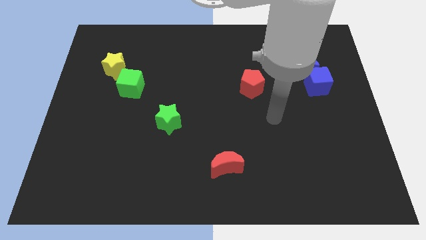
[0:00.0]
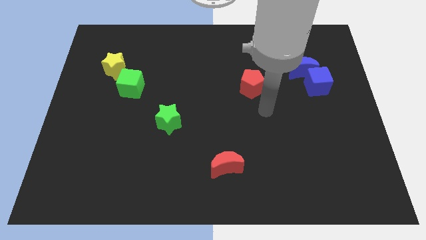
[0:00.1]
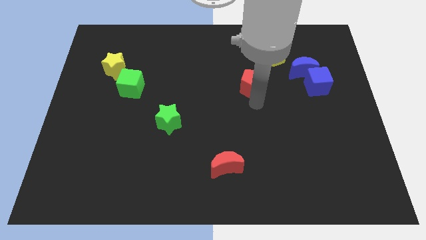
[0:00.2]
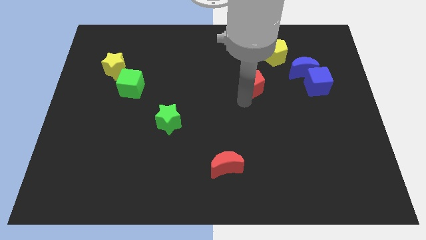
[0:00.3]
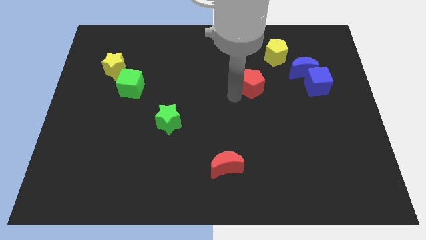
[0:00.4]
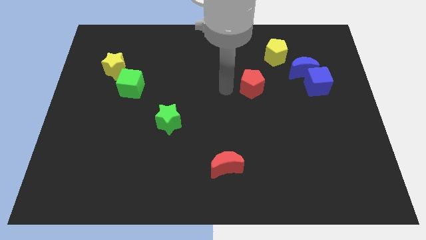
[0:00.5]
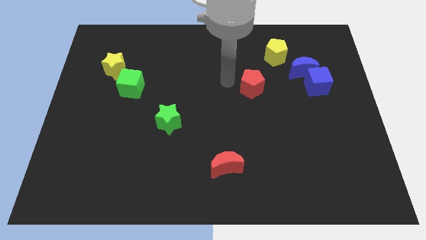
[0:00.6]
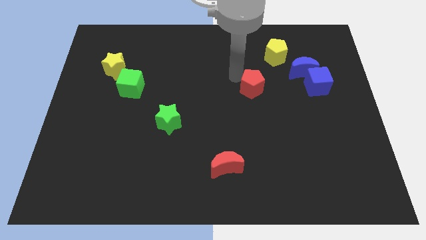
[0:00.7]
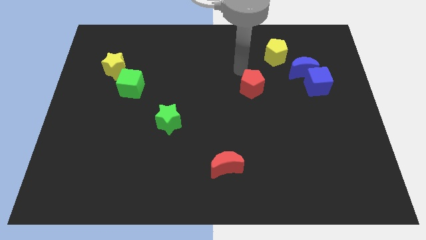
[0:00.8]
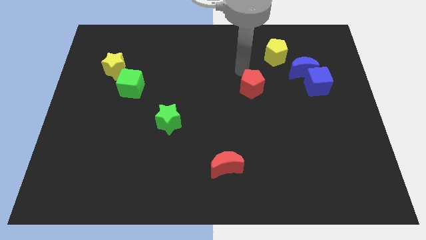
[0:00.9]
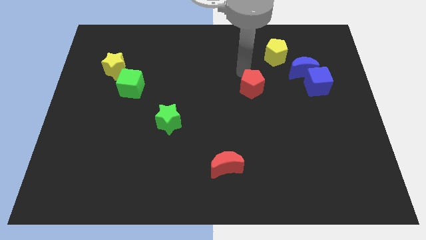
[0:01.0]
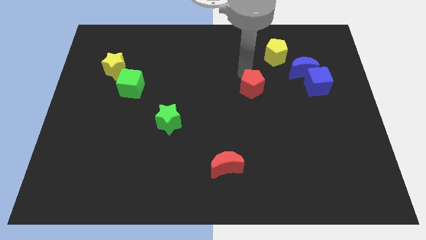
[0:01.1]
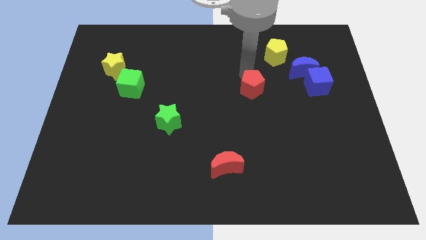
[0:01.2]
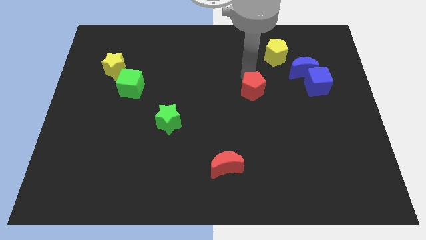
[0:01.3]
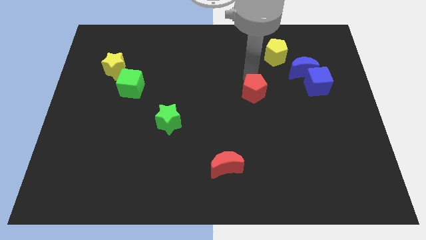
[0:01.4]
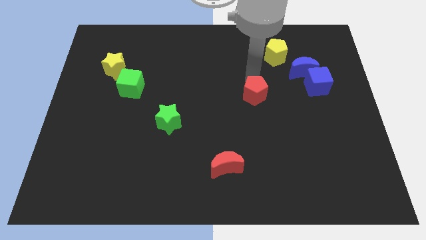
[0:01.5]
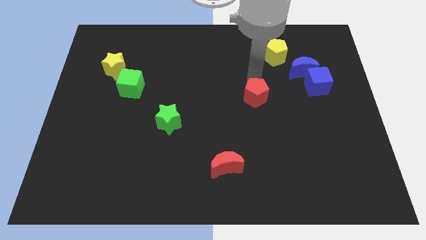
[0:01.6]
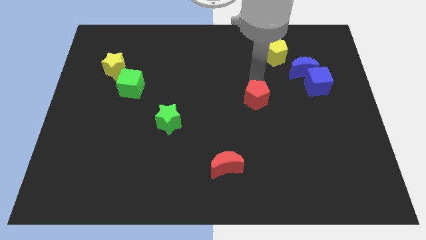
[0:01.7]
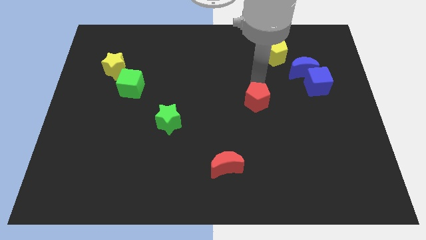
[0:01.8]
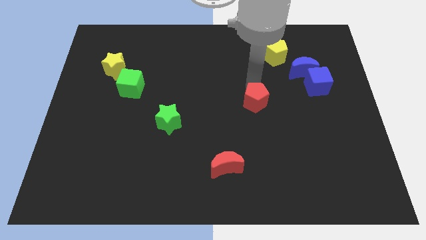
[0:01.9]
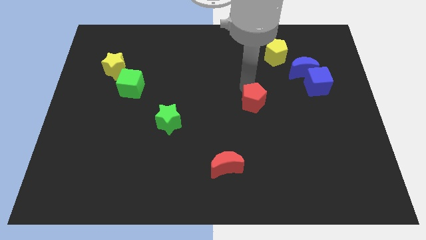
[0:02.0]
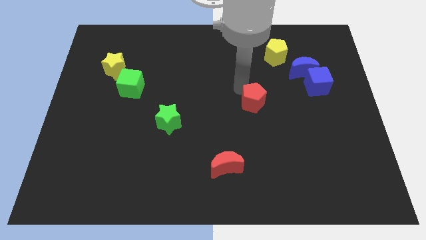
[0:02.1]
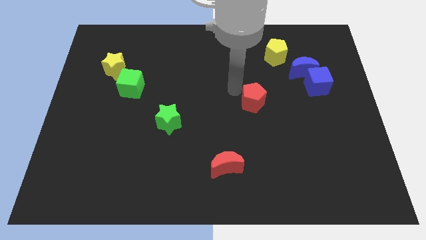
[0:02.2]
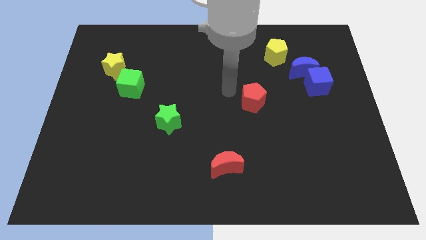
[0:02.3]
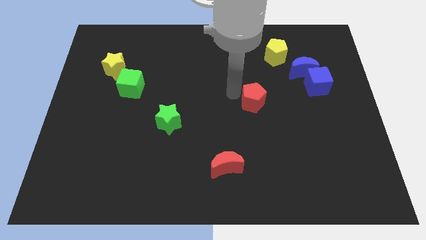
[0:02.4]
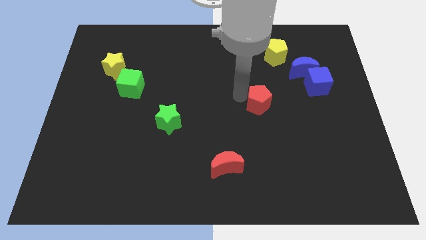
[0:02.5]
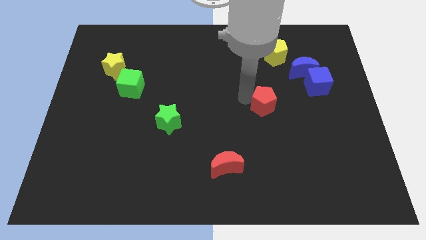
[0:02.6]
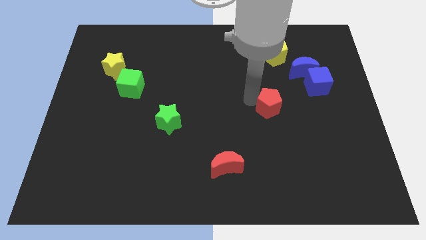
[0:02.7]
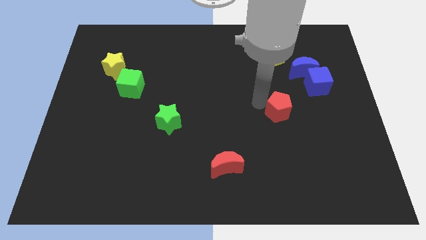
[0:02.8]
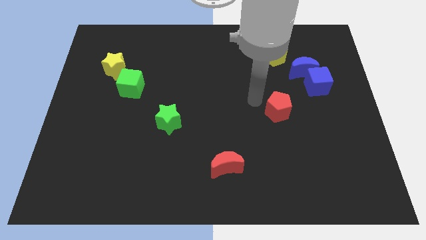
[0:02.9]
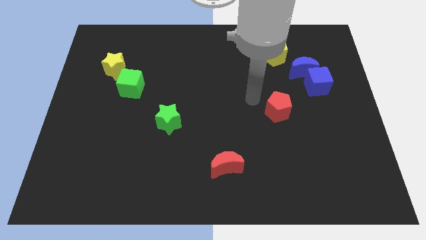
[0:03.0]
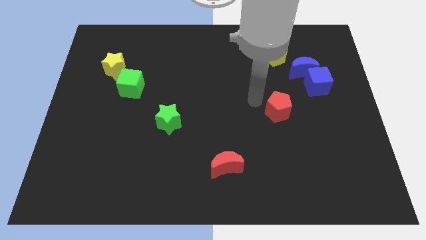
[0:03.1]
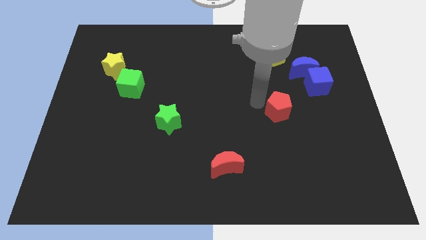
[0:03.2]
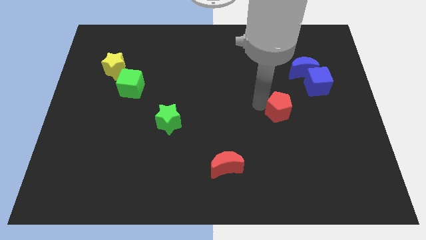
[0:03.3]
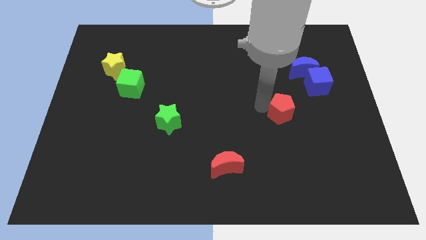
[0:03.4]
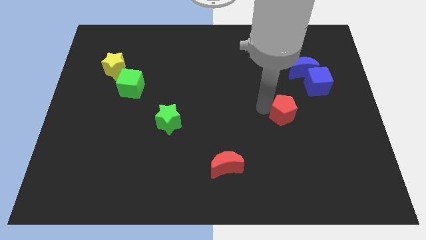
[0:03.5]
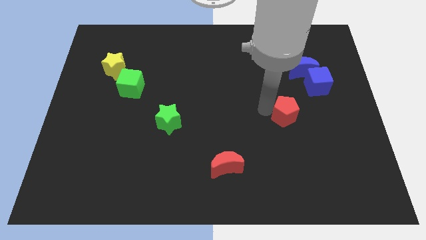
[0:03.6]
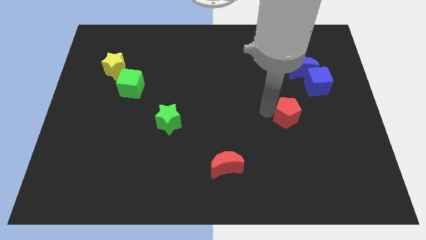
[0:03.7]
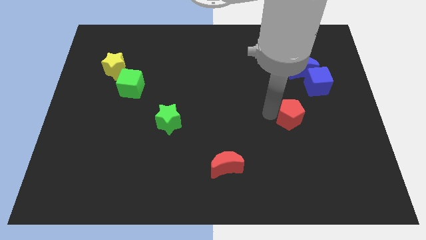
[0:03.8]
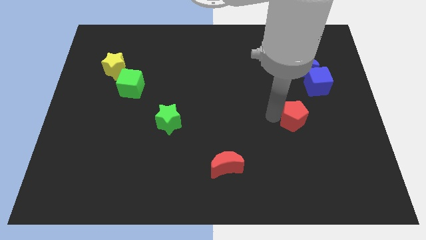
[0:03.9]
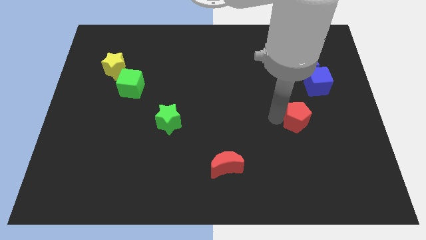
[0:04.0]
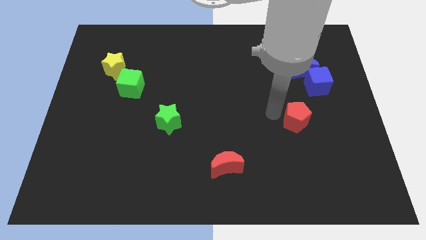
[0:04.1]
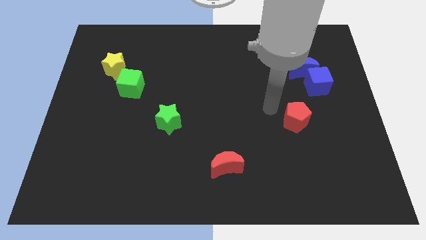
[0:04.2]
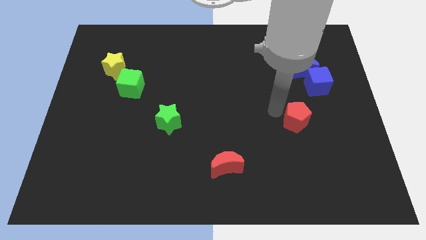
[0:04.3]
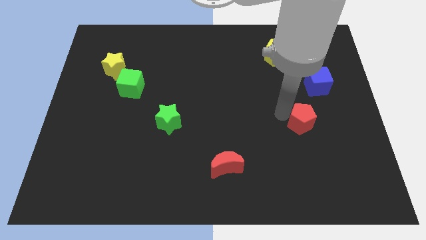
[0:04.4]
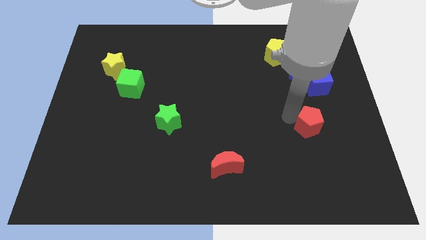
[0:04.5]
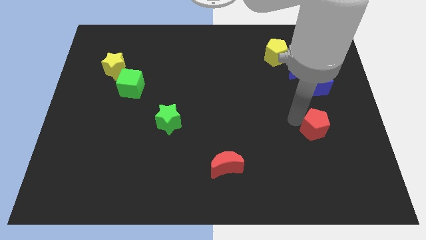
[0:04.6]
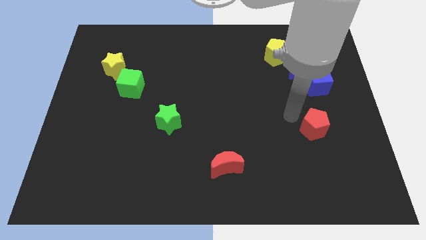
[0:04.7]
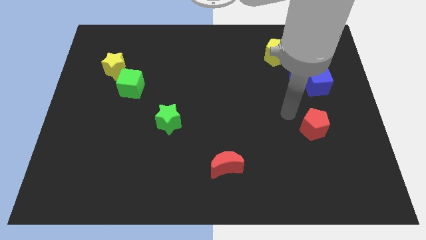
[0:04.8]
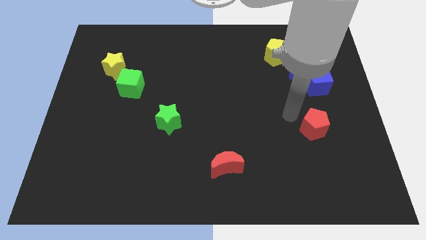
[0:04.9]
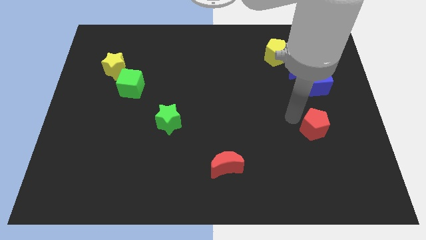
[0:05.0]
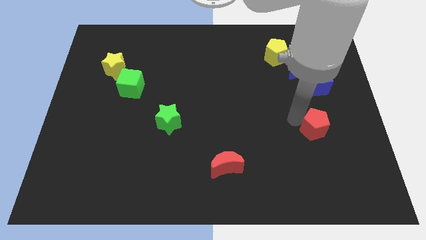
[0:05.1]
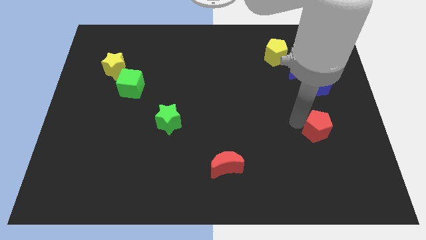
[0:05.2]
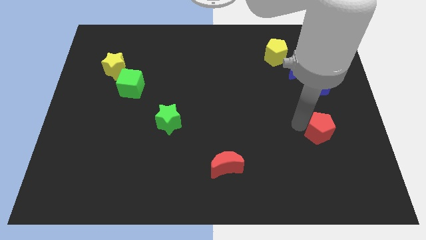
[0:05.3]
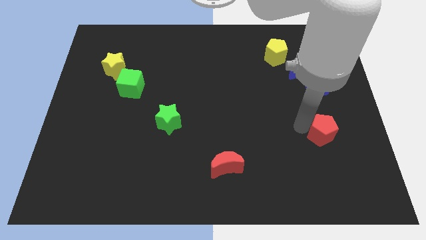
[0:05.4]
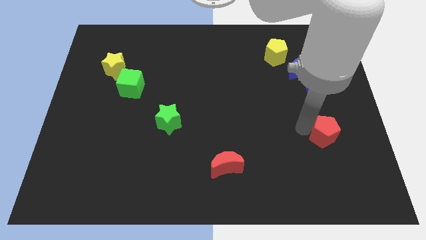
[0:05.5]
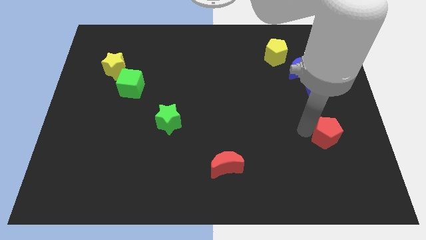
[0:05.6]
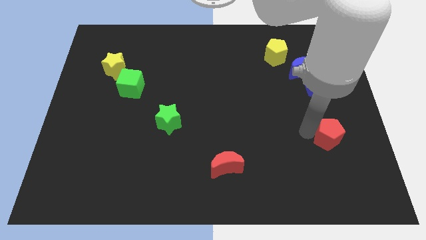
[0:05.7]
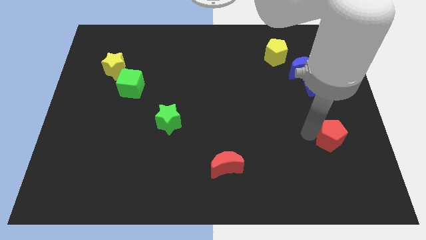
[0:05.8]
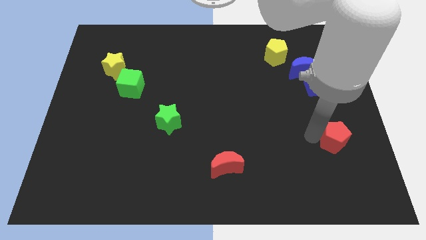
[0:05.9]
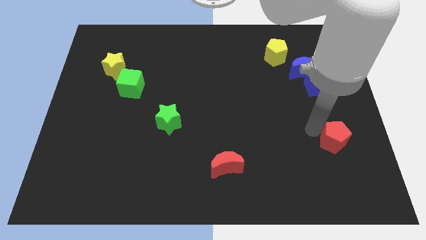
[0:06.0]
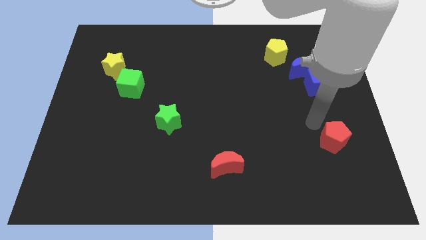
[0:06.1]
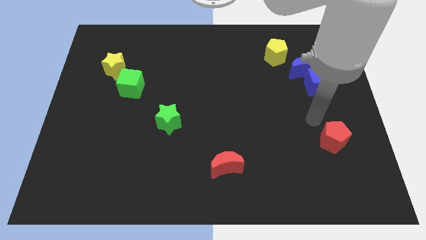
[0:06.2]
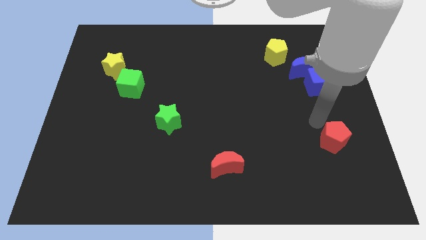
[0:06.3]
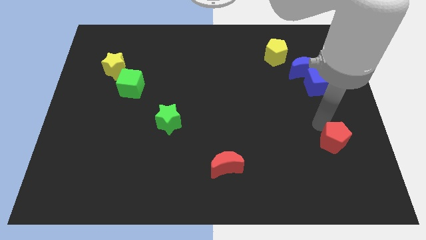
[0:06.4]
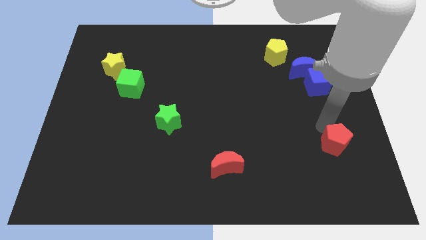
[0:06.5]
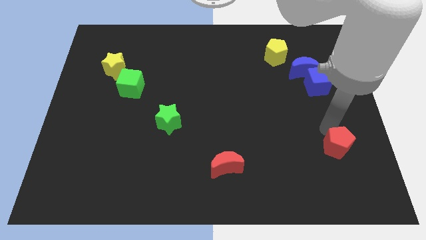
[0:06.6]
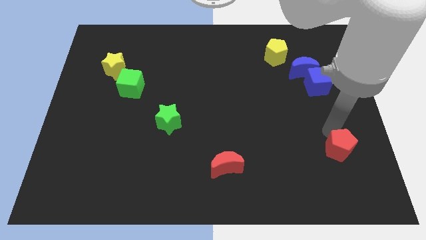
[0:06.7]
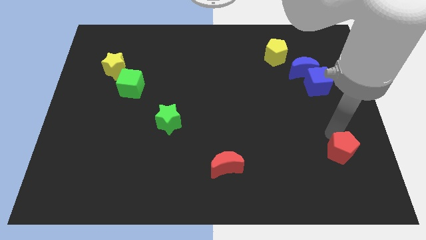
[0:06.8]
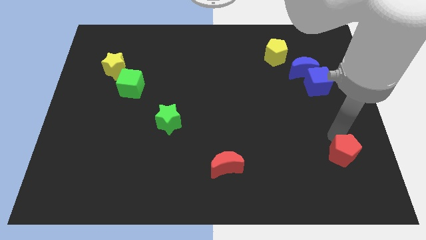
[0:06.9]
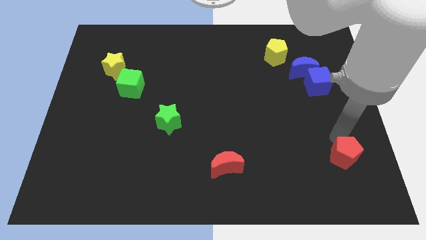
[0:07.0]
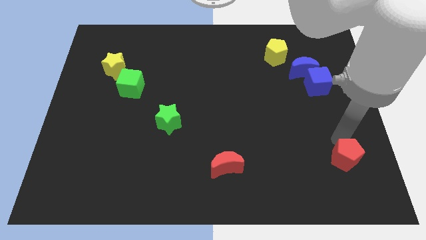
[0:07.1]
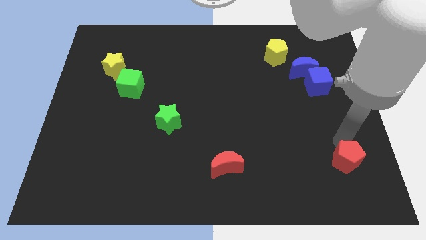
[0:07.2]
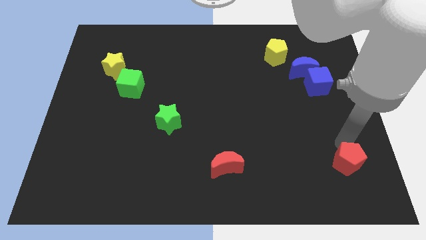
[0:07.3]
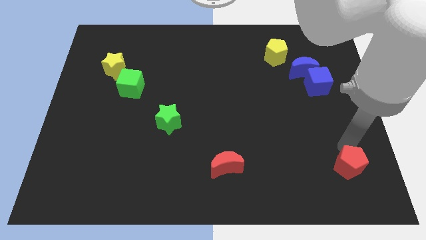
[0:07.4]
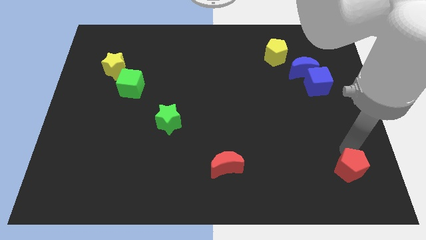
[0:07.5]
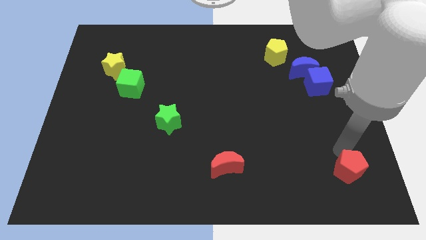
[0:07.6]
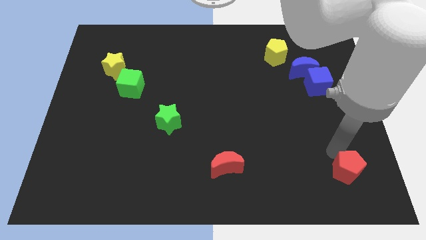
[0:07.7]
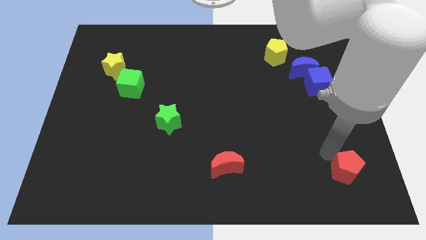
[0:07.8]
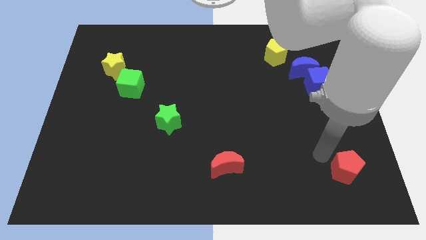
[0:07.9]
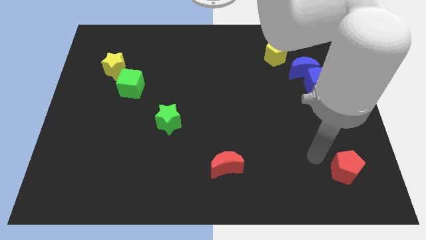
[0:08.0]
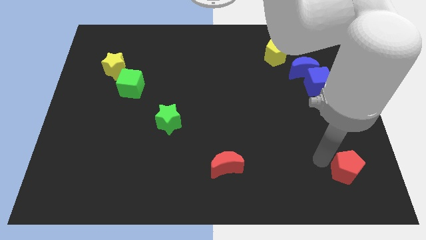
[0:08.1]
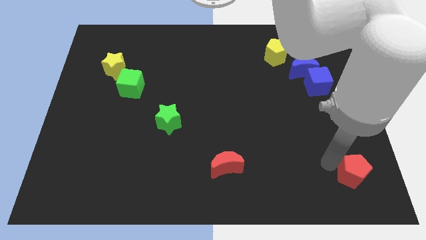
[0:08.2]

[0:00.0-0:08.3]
slide the red pentagon to the bottom right corner
